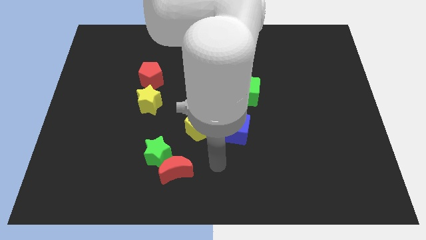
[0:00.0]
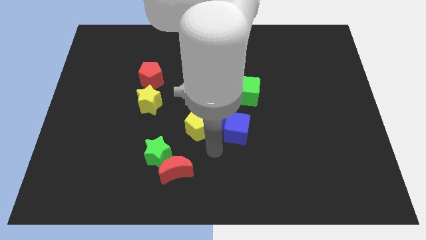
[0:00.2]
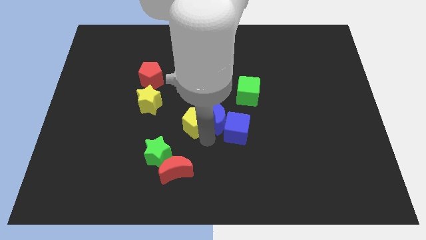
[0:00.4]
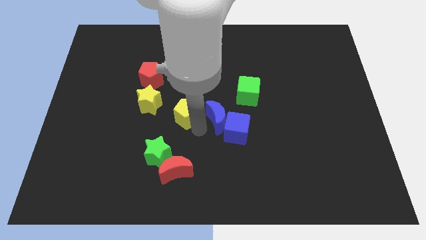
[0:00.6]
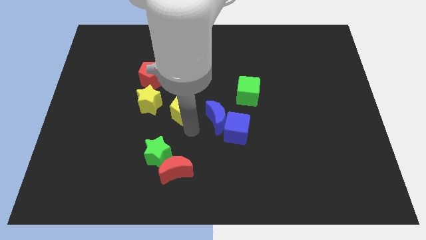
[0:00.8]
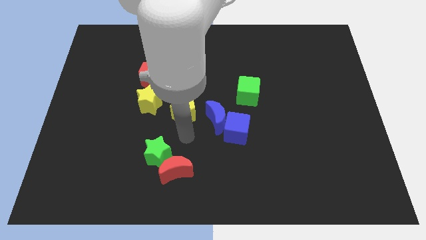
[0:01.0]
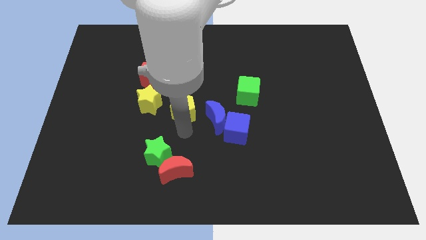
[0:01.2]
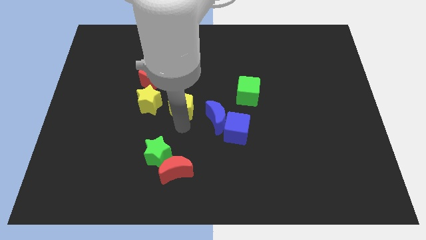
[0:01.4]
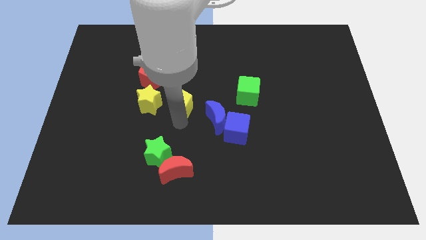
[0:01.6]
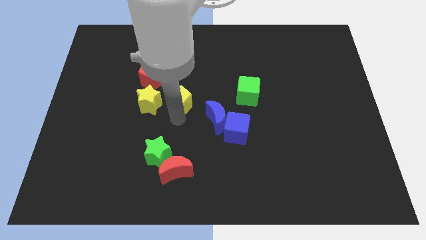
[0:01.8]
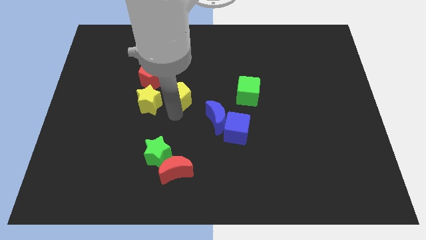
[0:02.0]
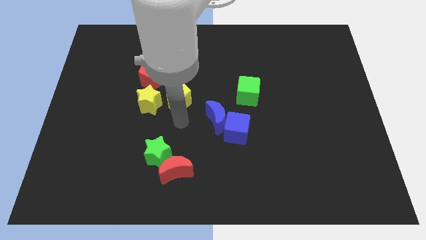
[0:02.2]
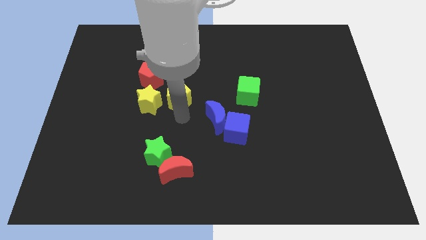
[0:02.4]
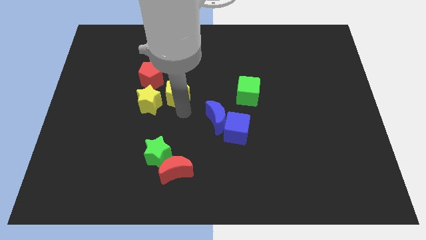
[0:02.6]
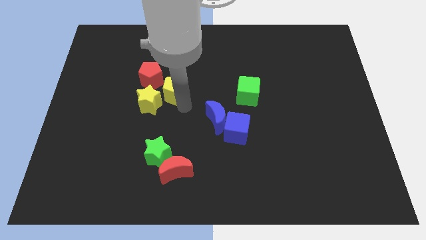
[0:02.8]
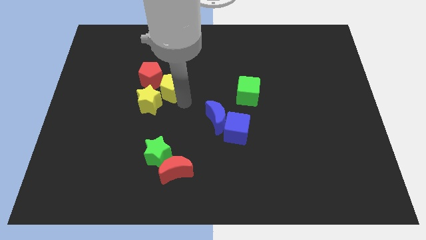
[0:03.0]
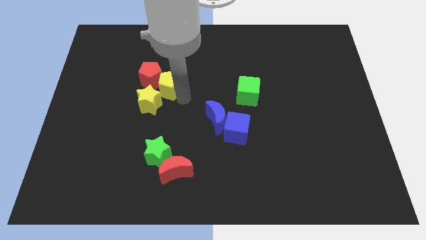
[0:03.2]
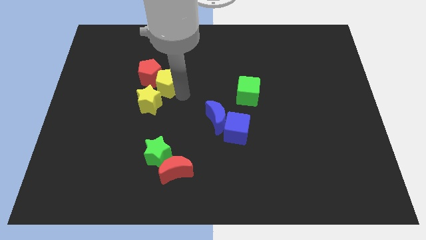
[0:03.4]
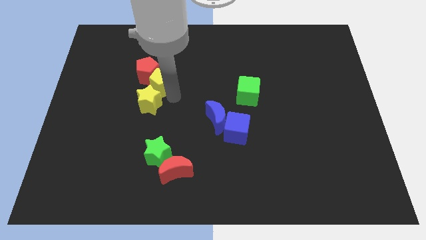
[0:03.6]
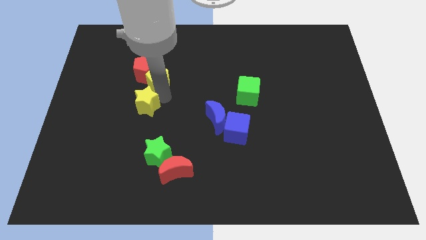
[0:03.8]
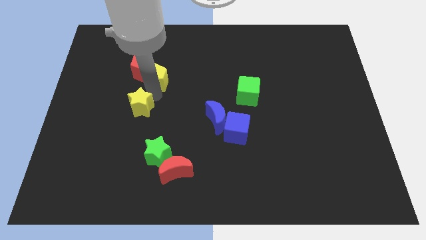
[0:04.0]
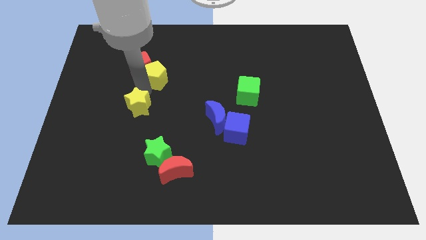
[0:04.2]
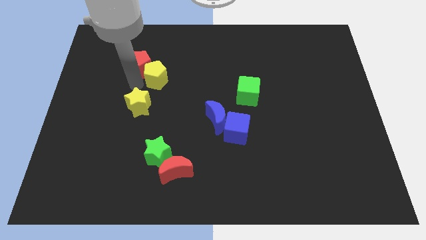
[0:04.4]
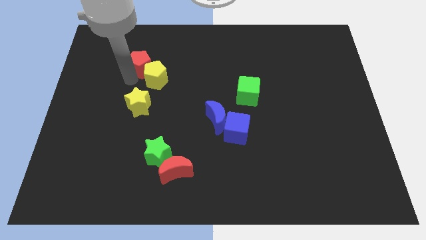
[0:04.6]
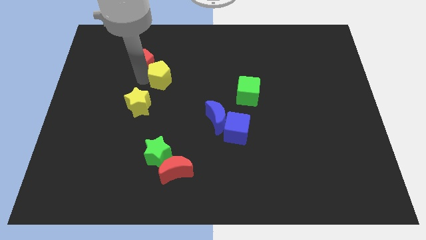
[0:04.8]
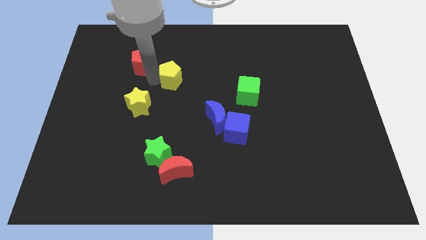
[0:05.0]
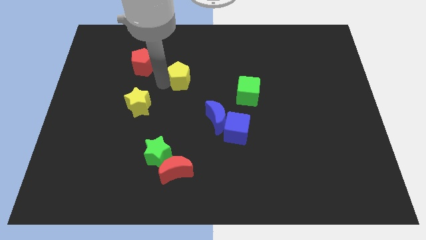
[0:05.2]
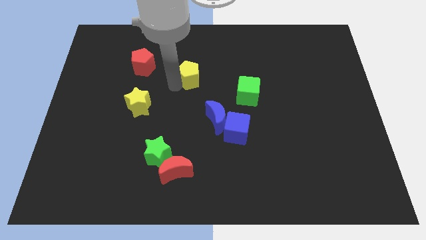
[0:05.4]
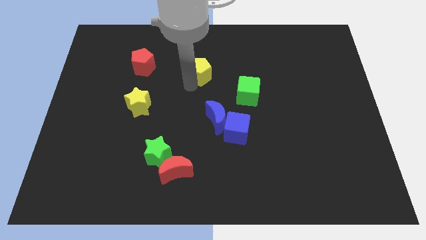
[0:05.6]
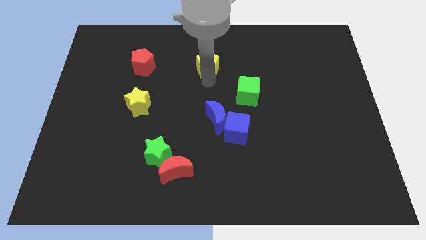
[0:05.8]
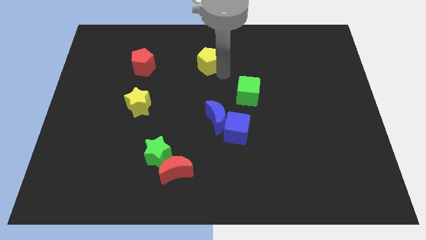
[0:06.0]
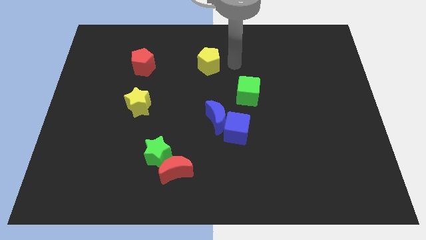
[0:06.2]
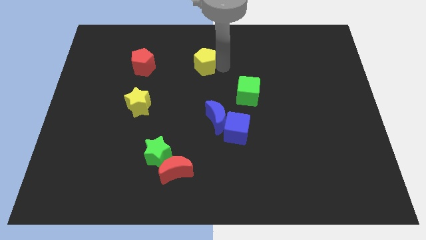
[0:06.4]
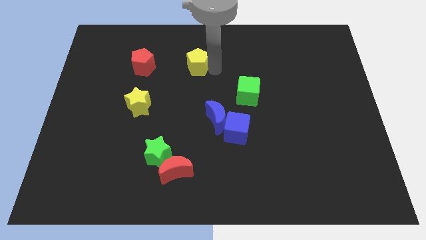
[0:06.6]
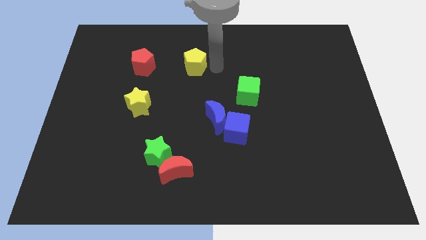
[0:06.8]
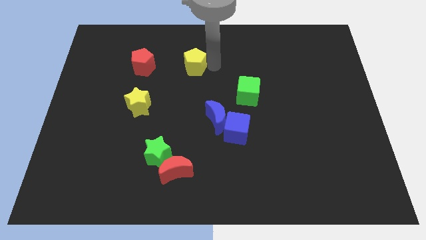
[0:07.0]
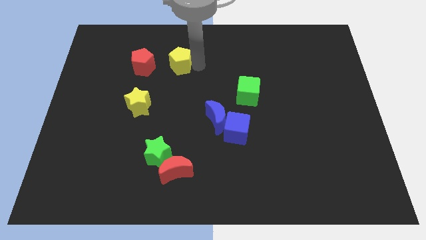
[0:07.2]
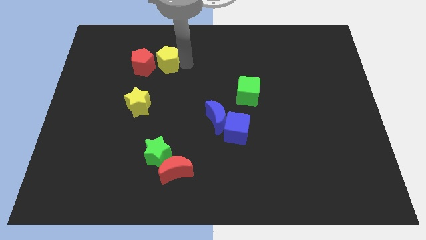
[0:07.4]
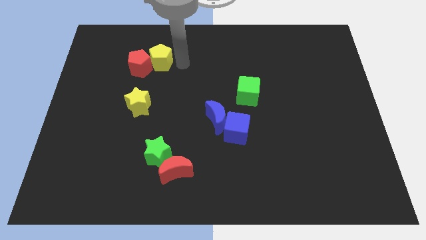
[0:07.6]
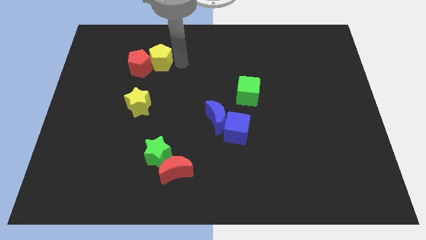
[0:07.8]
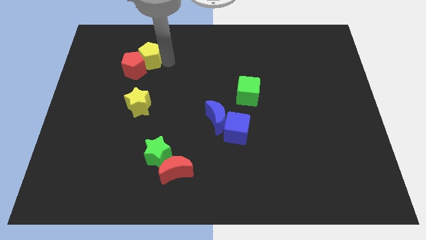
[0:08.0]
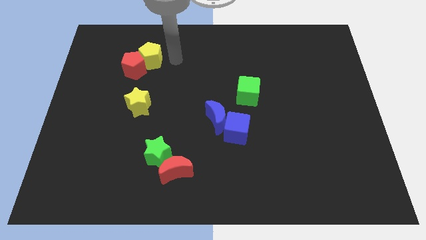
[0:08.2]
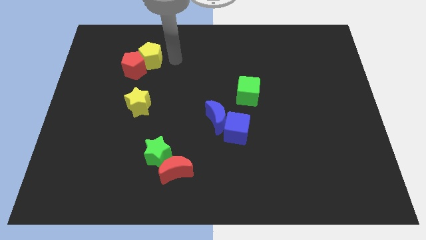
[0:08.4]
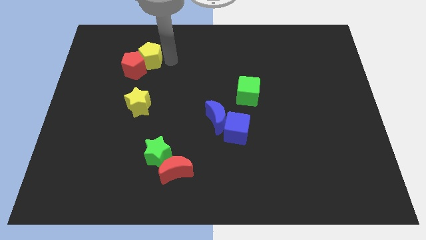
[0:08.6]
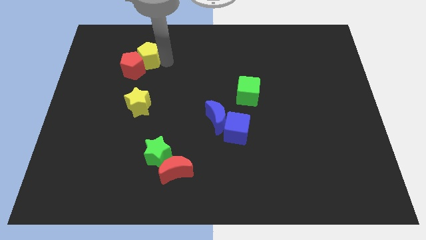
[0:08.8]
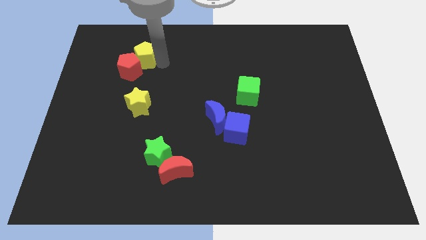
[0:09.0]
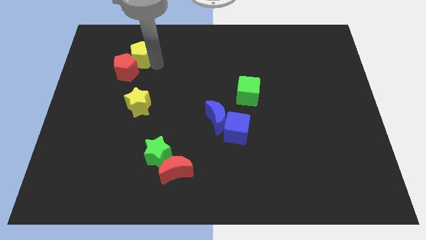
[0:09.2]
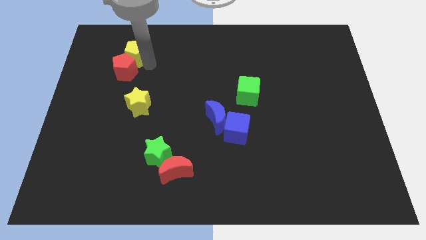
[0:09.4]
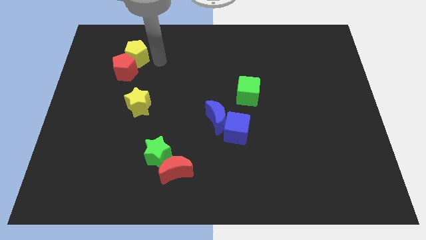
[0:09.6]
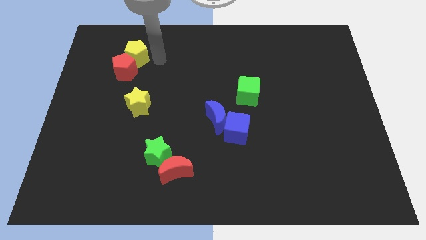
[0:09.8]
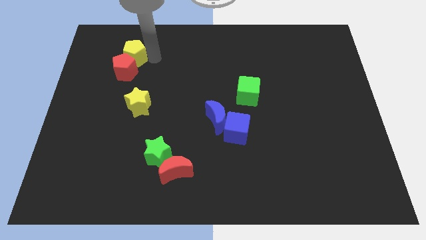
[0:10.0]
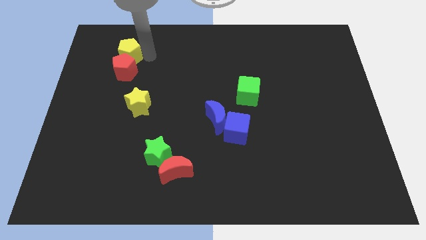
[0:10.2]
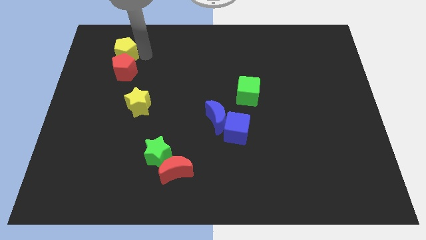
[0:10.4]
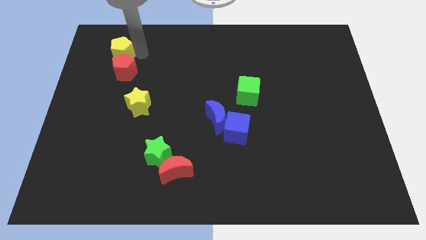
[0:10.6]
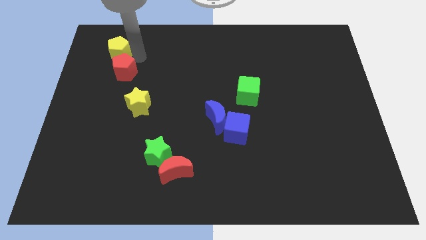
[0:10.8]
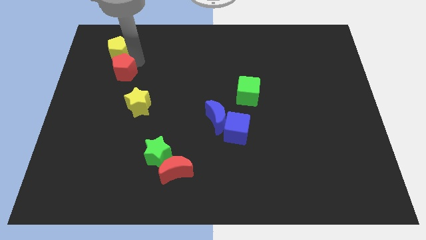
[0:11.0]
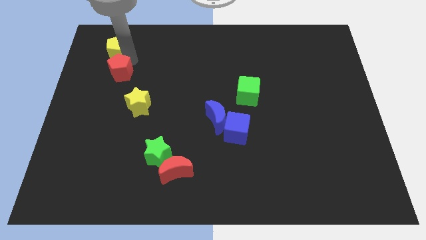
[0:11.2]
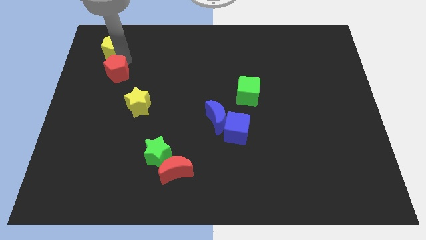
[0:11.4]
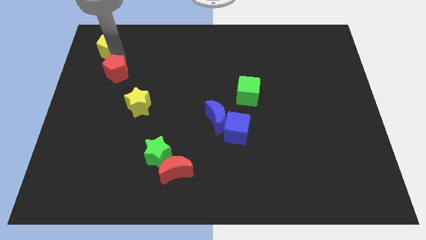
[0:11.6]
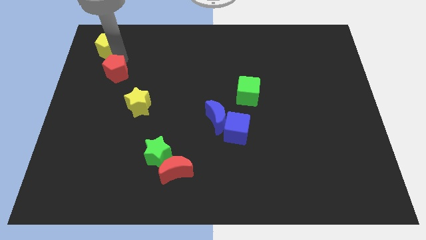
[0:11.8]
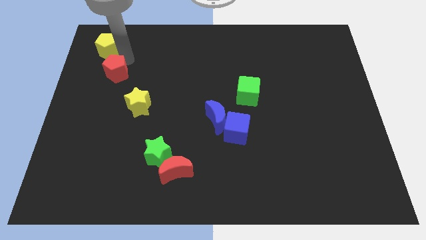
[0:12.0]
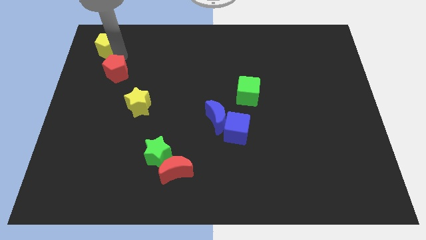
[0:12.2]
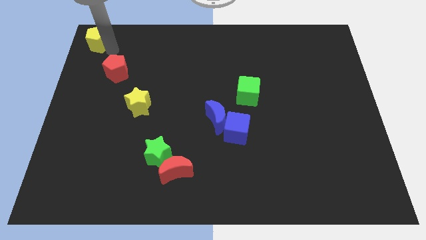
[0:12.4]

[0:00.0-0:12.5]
put the yellow pentagon to the top left corner
